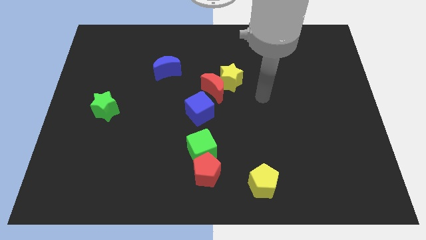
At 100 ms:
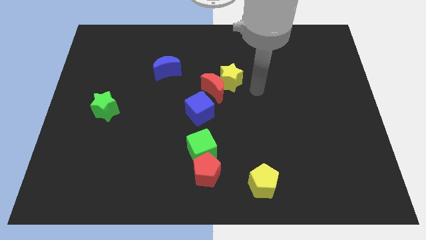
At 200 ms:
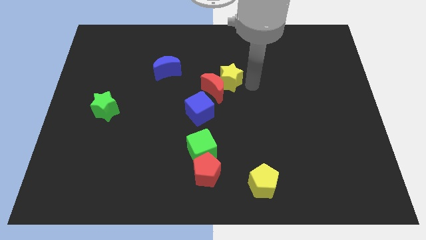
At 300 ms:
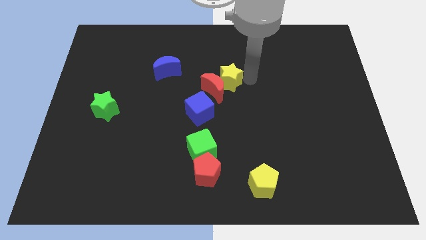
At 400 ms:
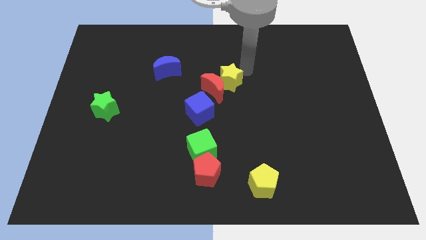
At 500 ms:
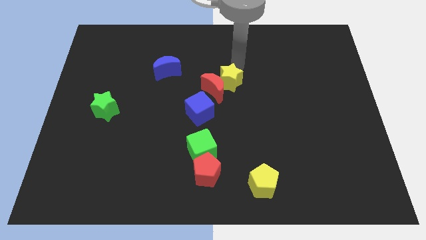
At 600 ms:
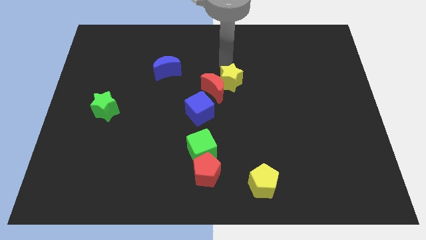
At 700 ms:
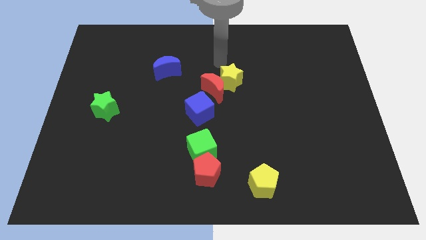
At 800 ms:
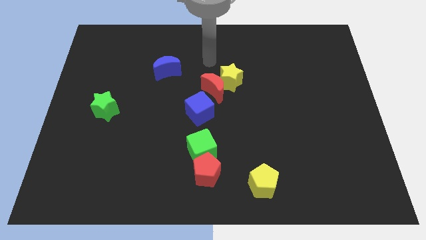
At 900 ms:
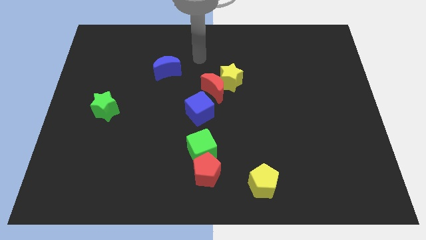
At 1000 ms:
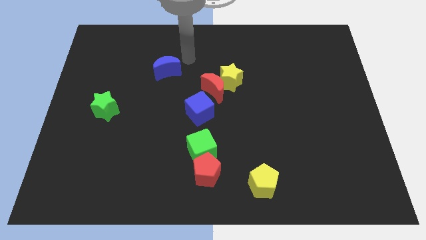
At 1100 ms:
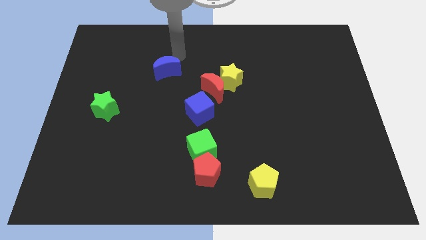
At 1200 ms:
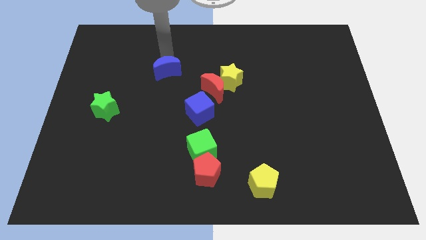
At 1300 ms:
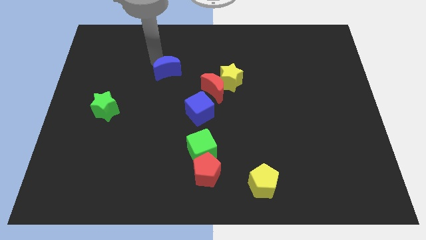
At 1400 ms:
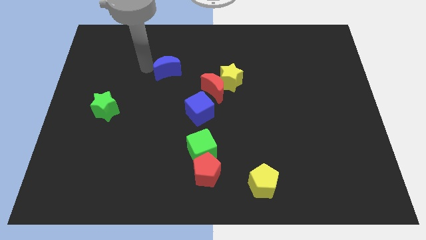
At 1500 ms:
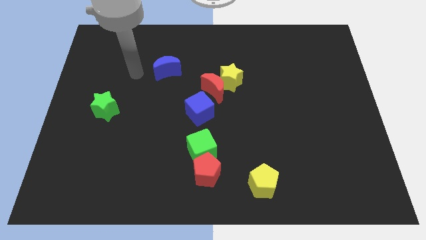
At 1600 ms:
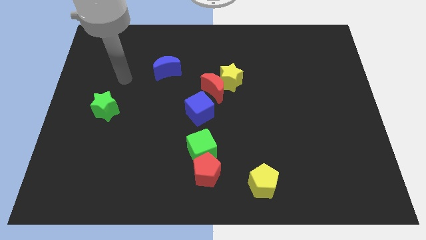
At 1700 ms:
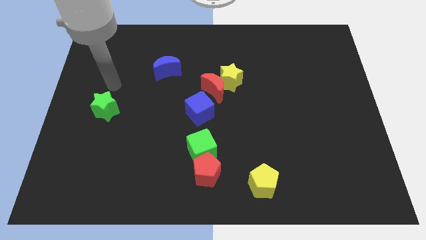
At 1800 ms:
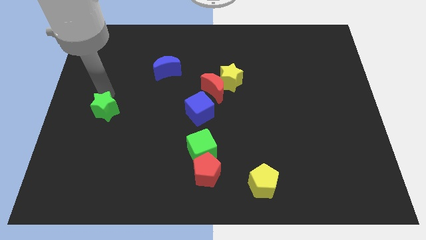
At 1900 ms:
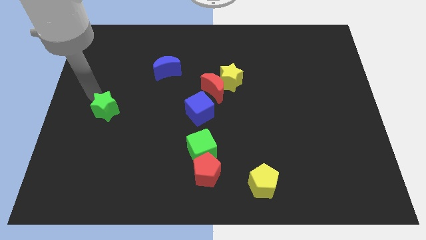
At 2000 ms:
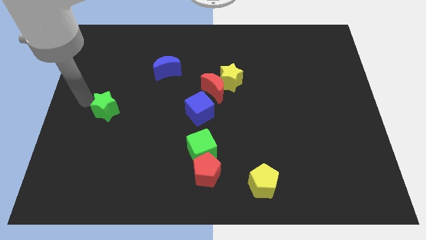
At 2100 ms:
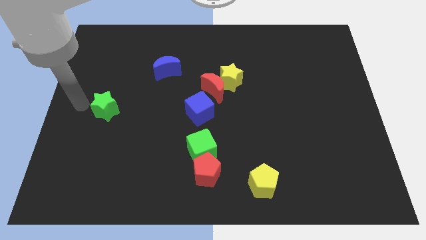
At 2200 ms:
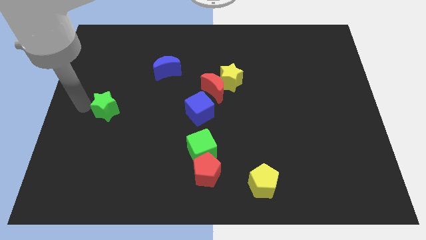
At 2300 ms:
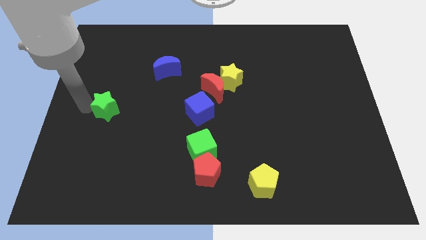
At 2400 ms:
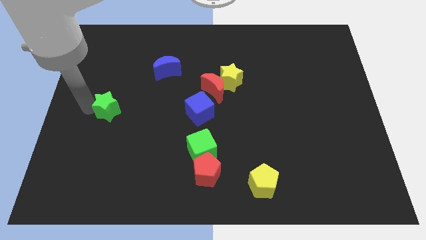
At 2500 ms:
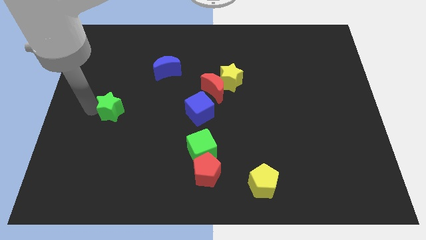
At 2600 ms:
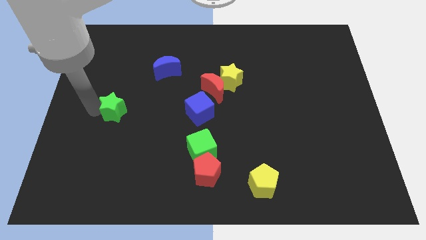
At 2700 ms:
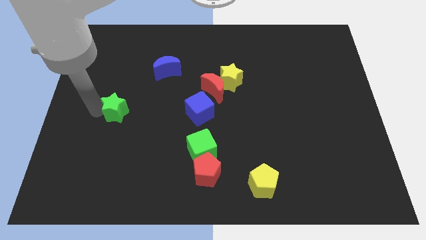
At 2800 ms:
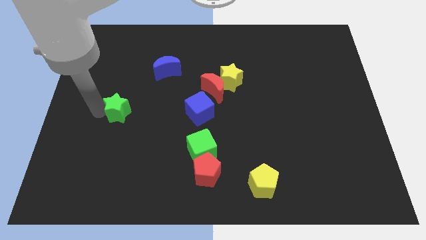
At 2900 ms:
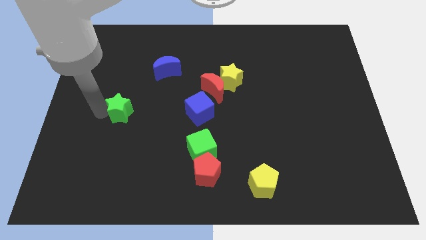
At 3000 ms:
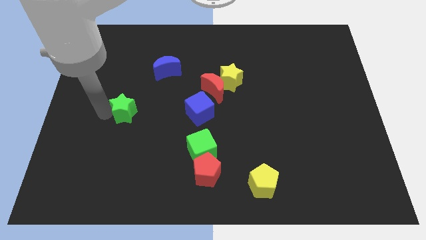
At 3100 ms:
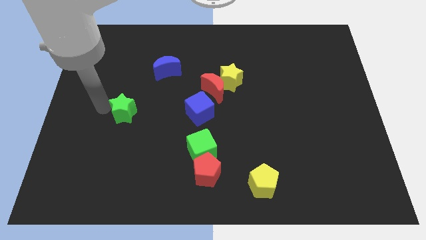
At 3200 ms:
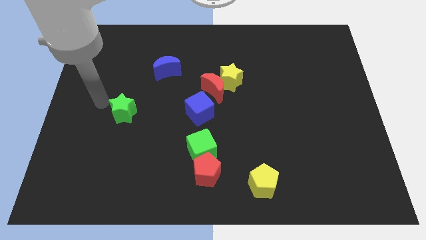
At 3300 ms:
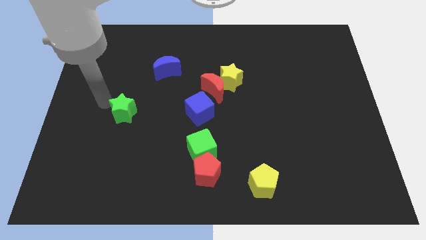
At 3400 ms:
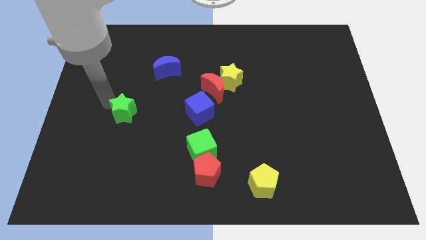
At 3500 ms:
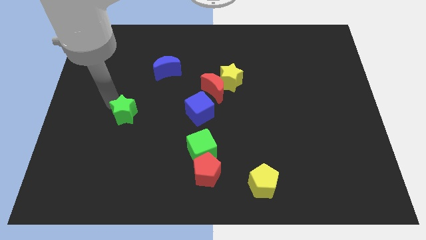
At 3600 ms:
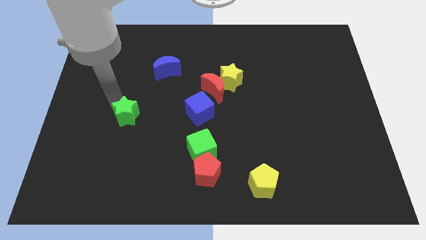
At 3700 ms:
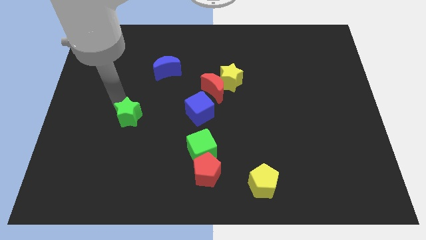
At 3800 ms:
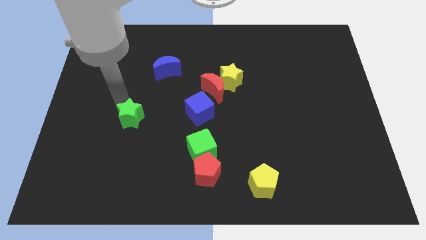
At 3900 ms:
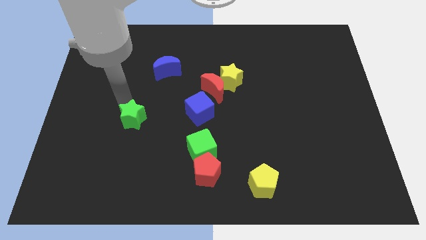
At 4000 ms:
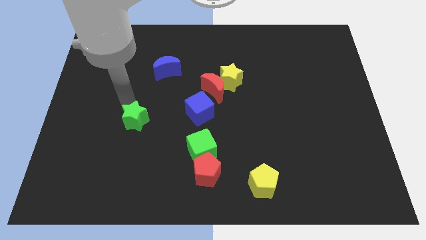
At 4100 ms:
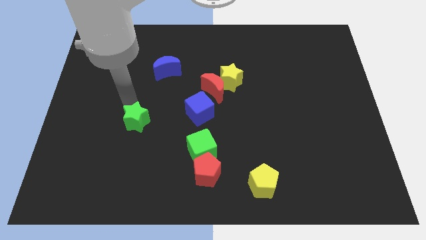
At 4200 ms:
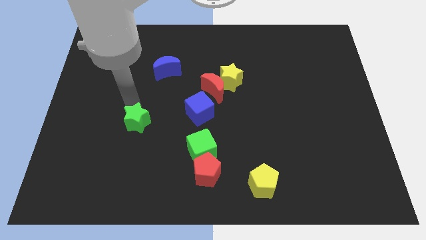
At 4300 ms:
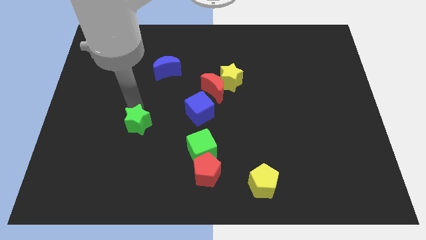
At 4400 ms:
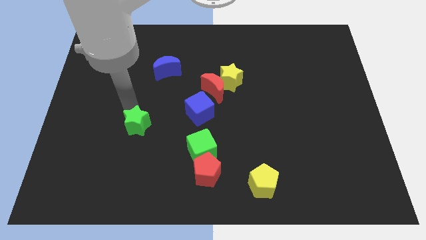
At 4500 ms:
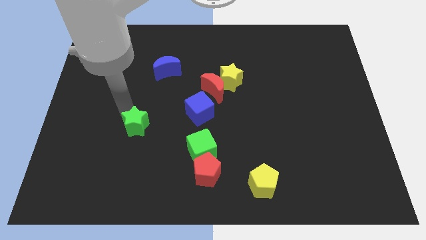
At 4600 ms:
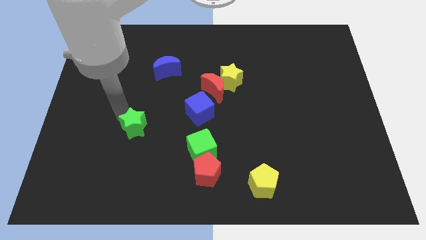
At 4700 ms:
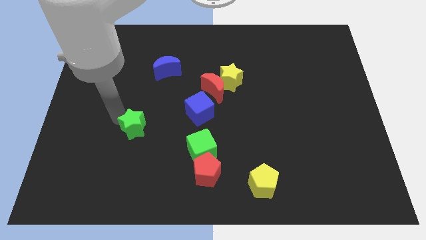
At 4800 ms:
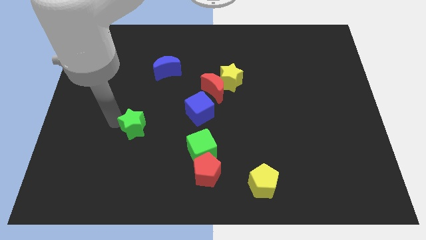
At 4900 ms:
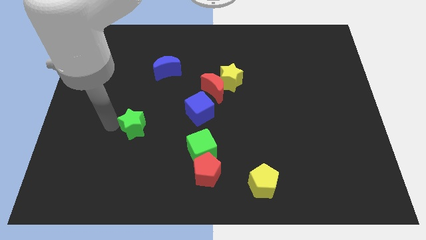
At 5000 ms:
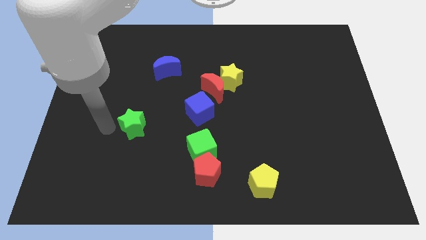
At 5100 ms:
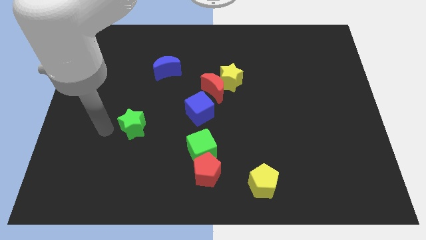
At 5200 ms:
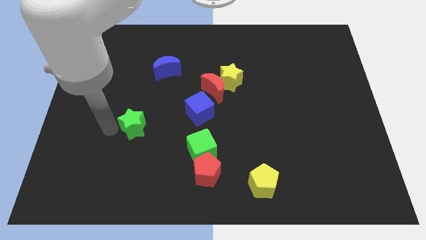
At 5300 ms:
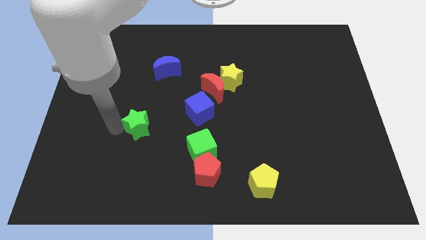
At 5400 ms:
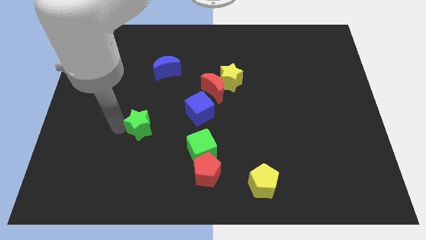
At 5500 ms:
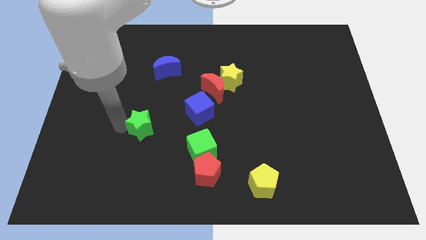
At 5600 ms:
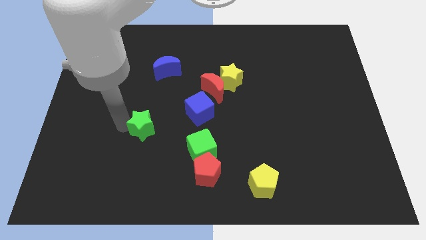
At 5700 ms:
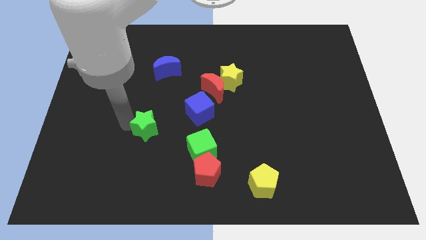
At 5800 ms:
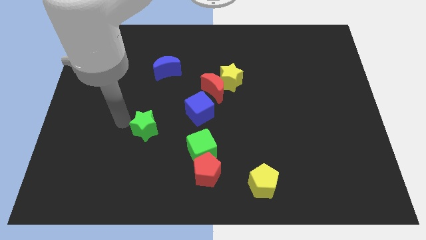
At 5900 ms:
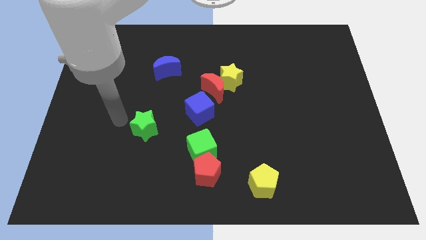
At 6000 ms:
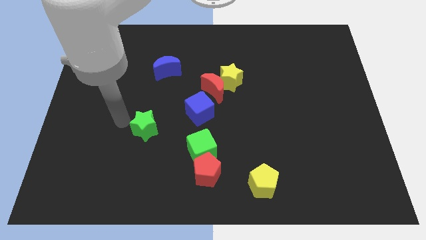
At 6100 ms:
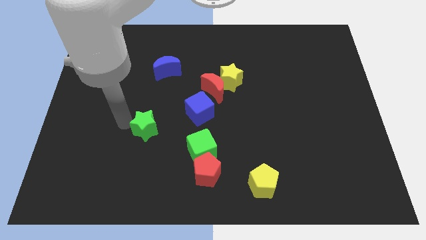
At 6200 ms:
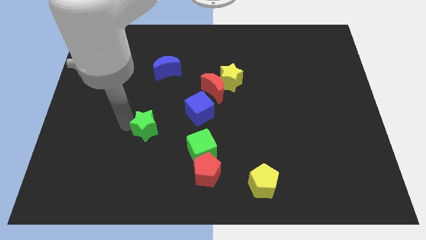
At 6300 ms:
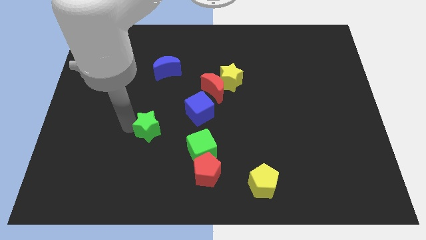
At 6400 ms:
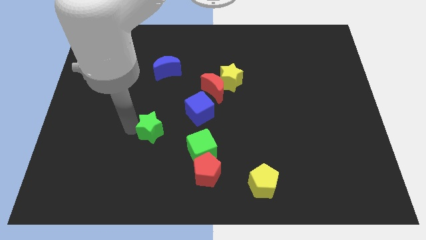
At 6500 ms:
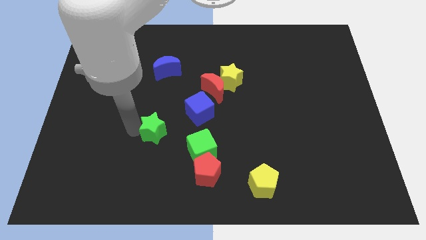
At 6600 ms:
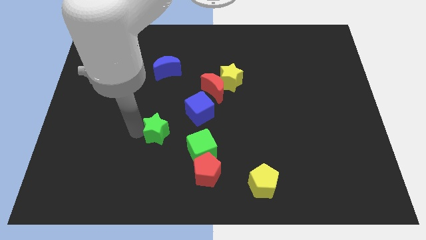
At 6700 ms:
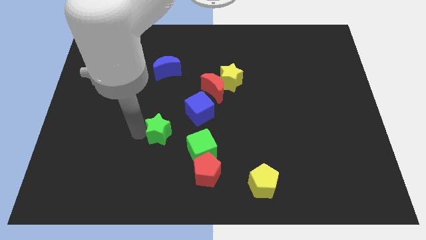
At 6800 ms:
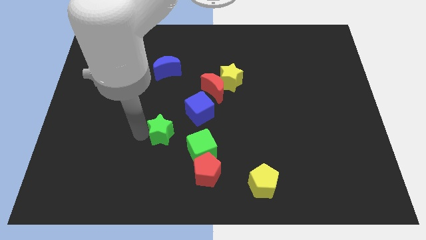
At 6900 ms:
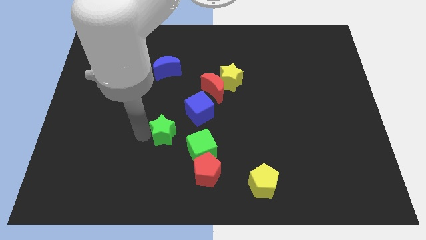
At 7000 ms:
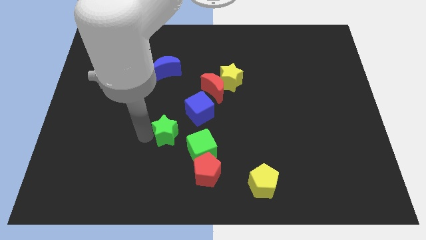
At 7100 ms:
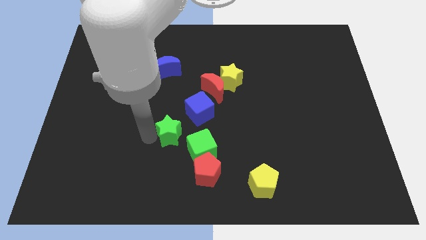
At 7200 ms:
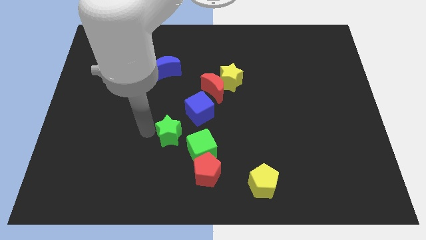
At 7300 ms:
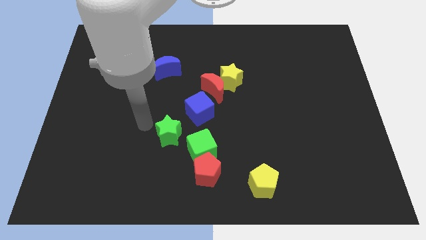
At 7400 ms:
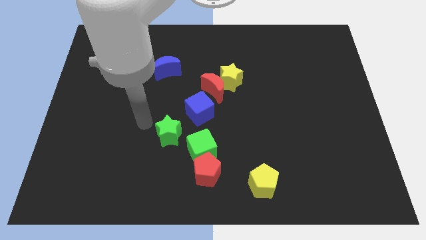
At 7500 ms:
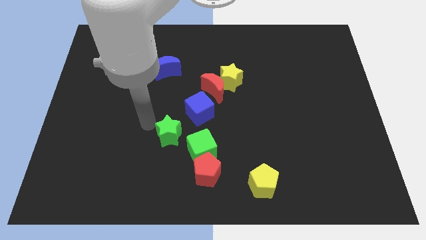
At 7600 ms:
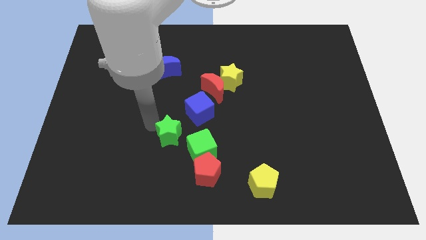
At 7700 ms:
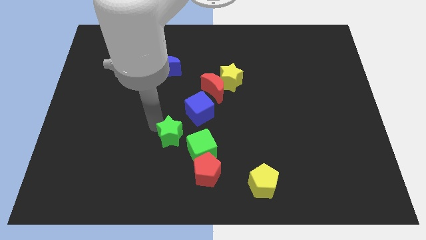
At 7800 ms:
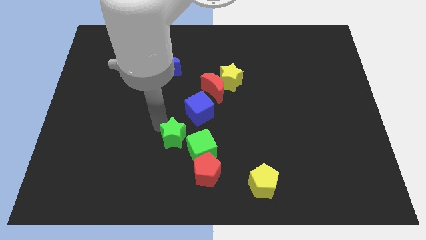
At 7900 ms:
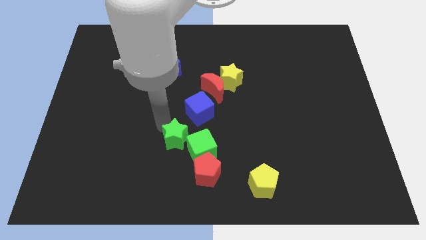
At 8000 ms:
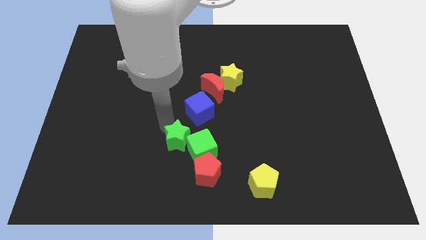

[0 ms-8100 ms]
push the green star close to the green cube
